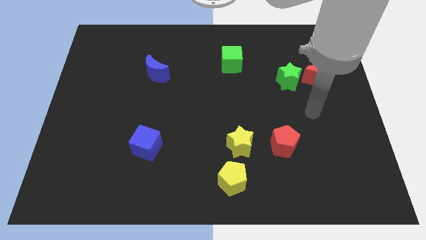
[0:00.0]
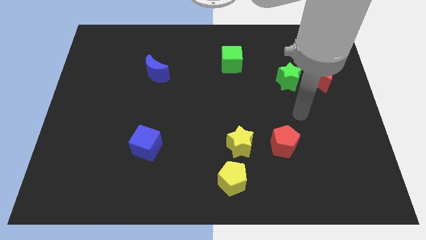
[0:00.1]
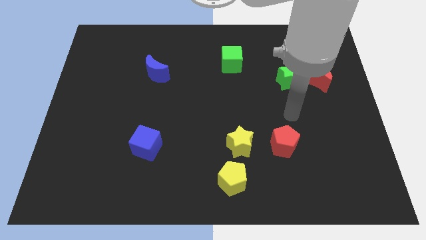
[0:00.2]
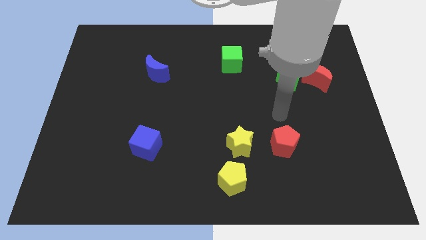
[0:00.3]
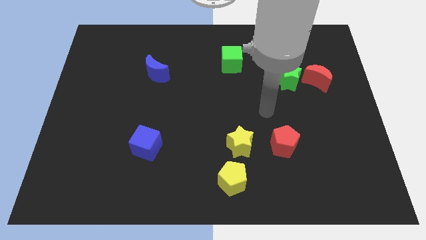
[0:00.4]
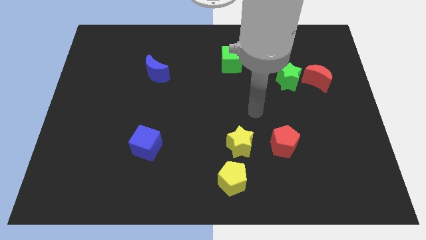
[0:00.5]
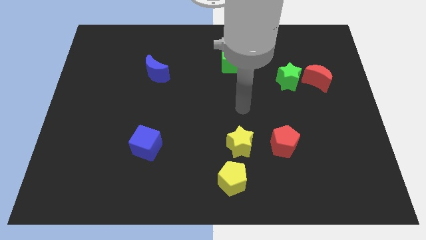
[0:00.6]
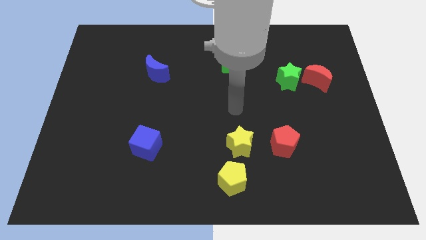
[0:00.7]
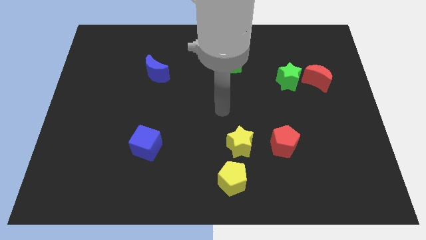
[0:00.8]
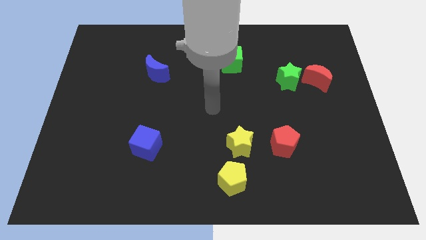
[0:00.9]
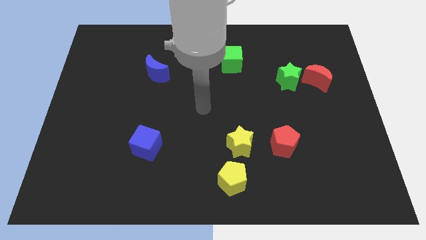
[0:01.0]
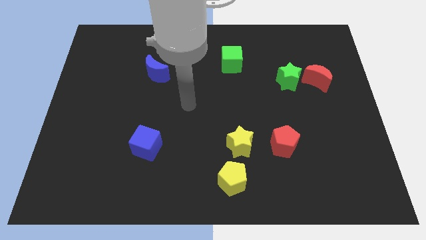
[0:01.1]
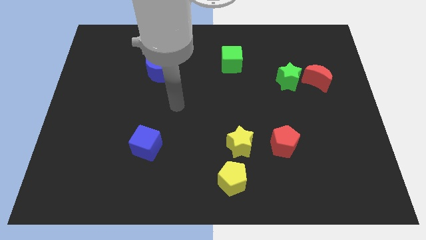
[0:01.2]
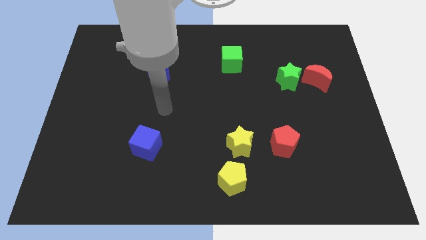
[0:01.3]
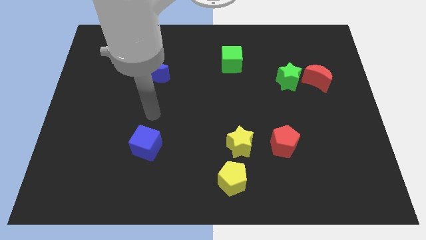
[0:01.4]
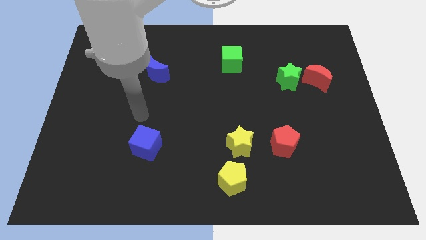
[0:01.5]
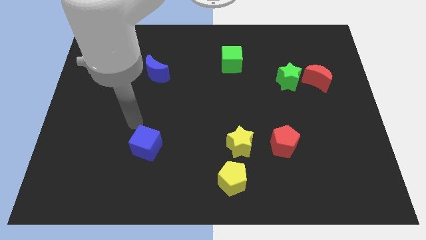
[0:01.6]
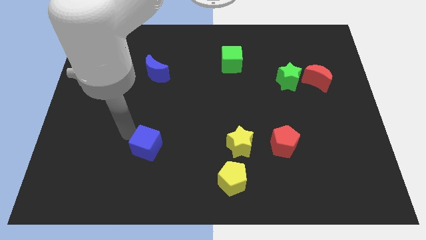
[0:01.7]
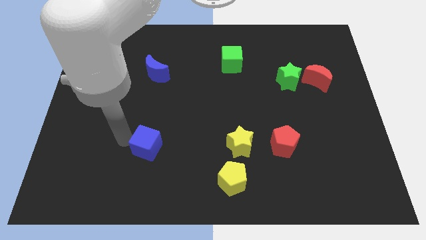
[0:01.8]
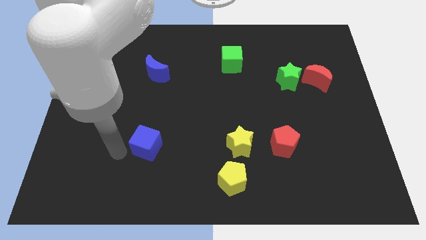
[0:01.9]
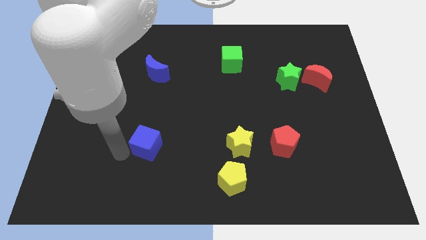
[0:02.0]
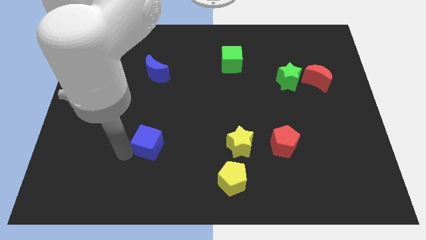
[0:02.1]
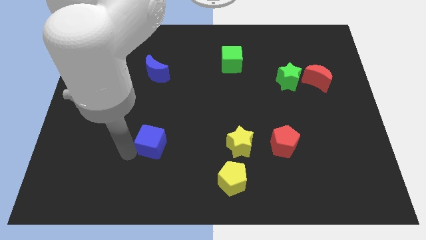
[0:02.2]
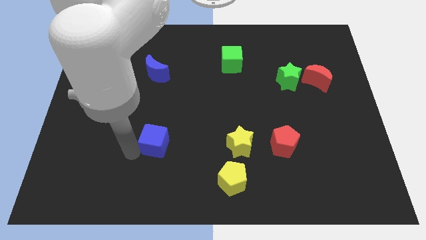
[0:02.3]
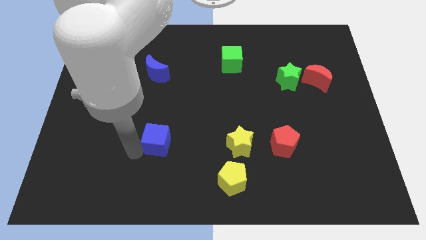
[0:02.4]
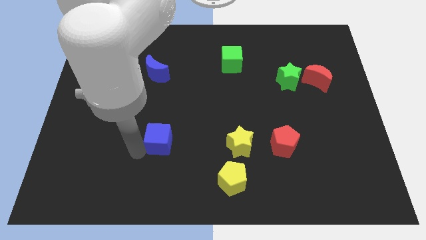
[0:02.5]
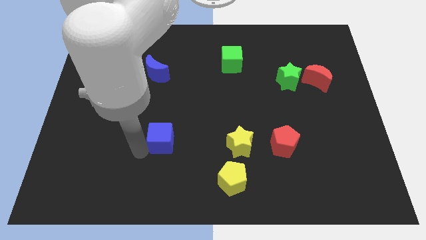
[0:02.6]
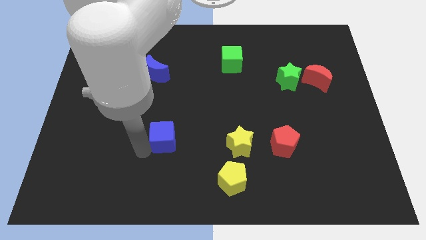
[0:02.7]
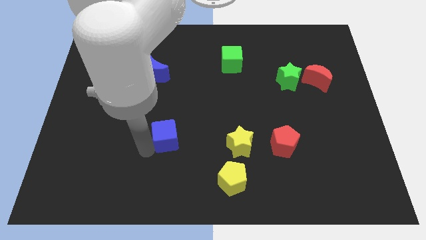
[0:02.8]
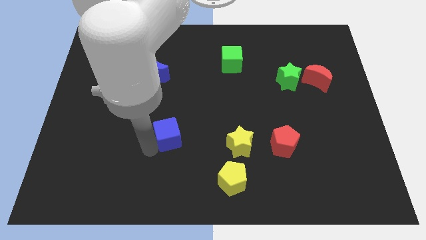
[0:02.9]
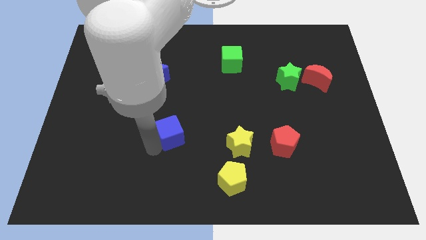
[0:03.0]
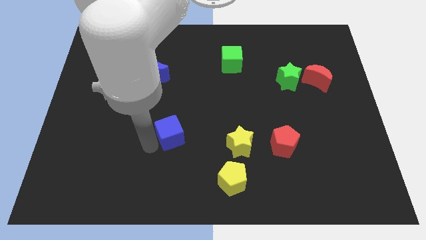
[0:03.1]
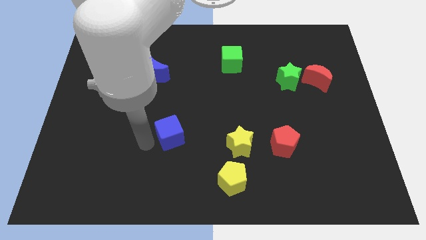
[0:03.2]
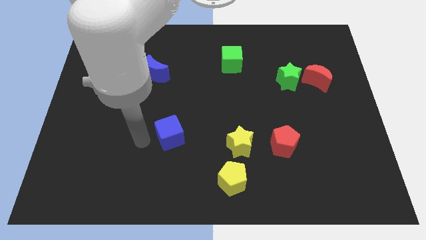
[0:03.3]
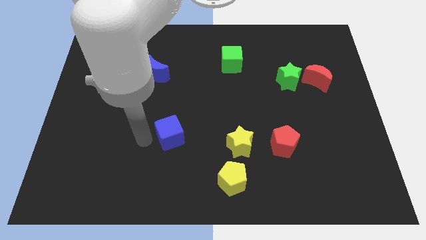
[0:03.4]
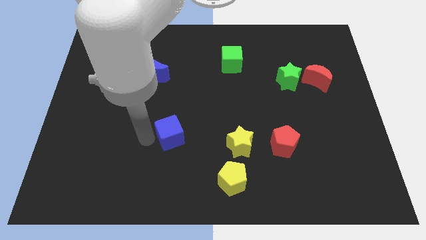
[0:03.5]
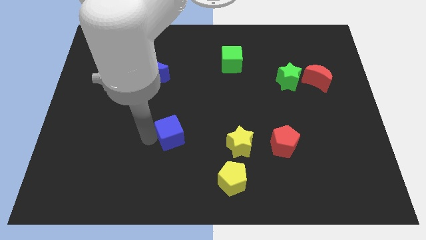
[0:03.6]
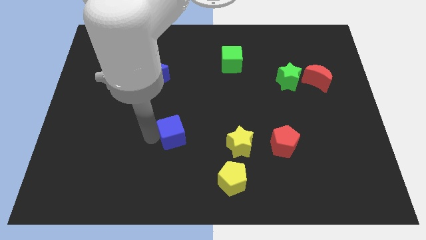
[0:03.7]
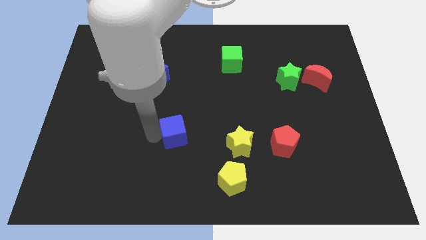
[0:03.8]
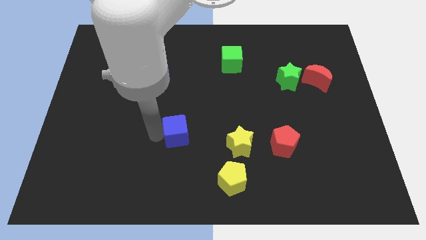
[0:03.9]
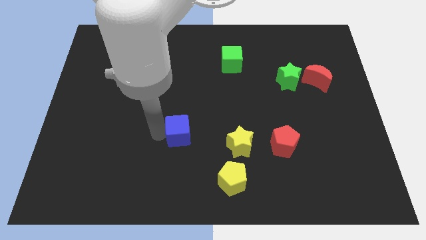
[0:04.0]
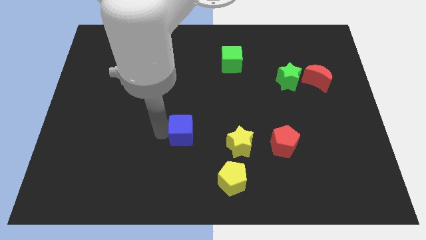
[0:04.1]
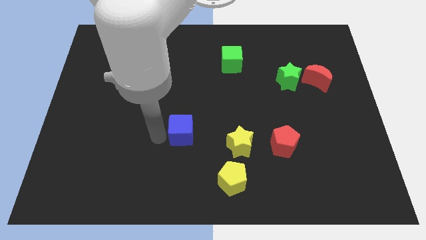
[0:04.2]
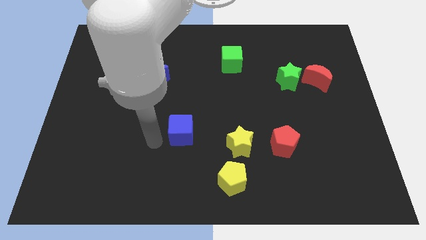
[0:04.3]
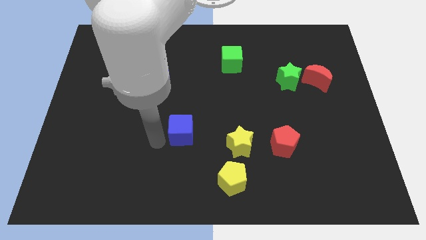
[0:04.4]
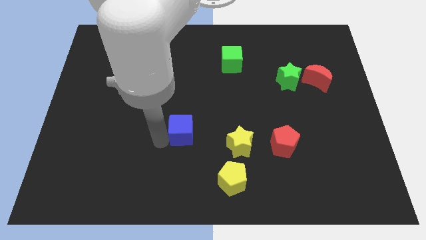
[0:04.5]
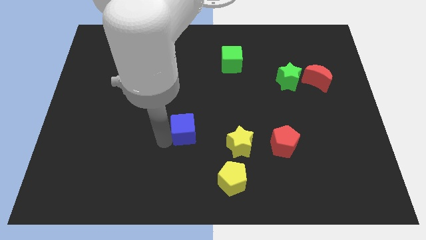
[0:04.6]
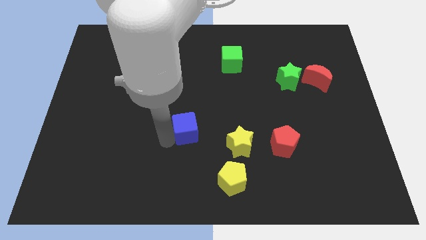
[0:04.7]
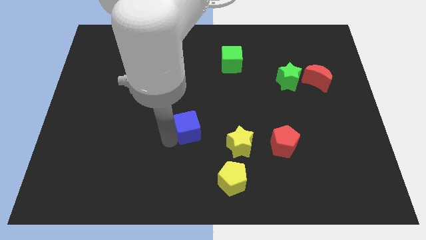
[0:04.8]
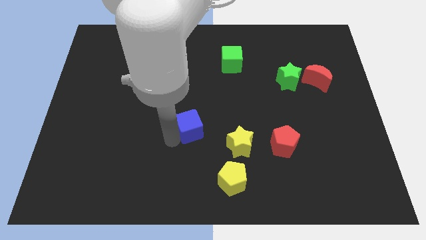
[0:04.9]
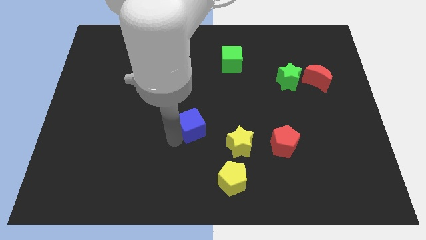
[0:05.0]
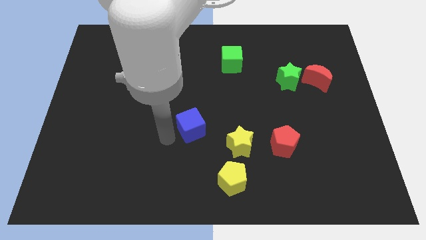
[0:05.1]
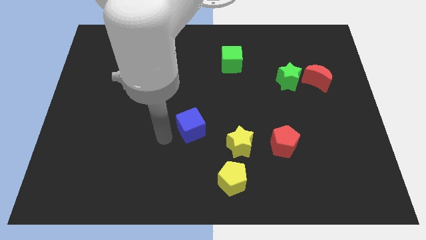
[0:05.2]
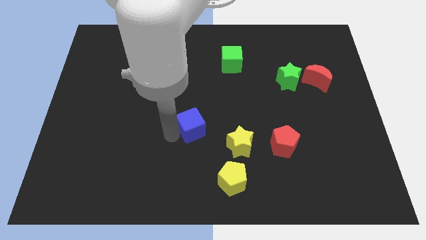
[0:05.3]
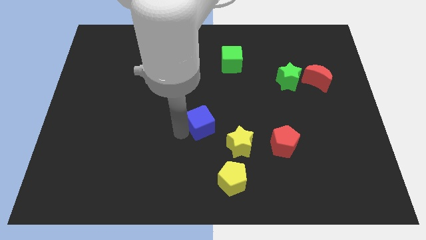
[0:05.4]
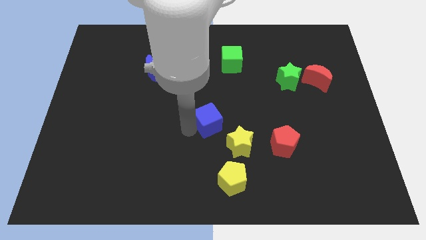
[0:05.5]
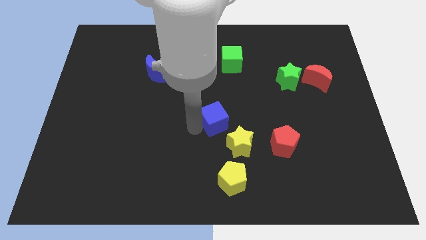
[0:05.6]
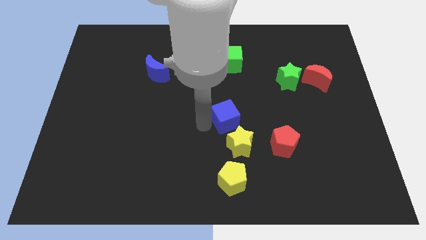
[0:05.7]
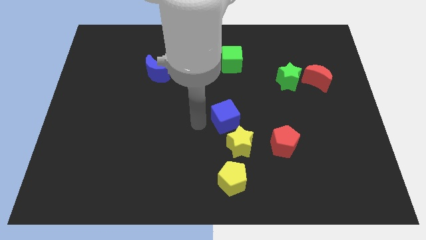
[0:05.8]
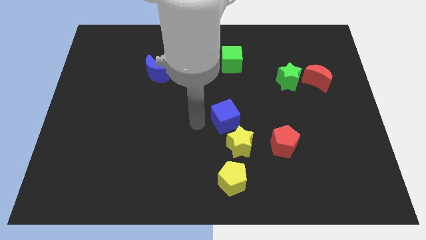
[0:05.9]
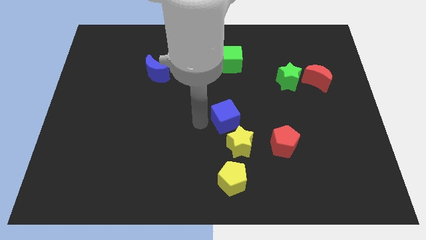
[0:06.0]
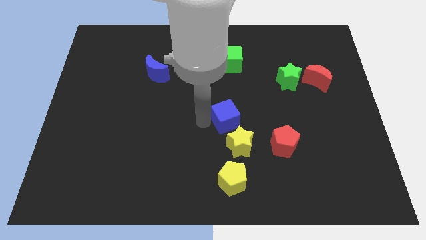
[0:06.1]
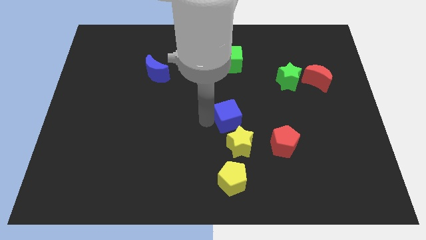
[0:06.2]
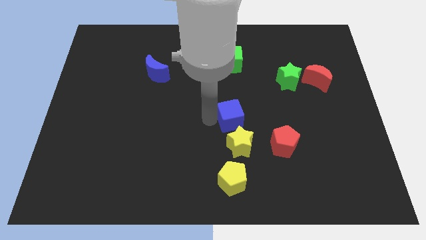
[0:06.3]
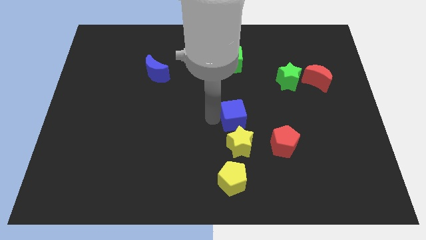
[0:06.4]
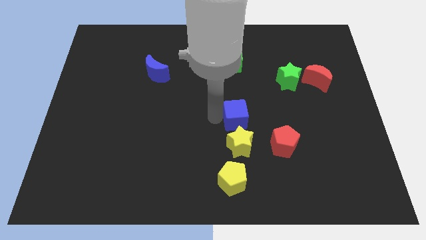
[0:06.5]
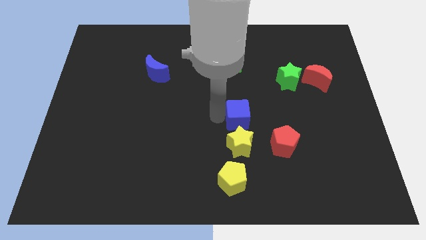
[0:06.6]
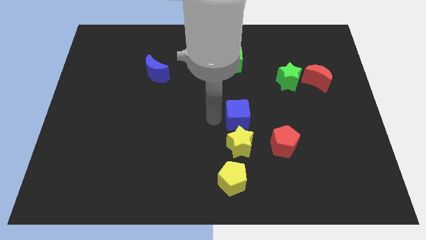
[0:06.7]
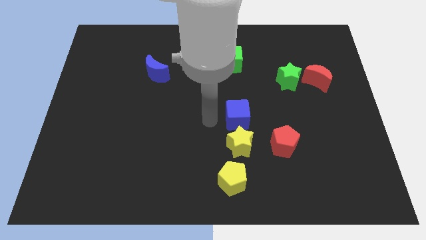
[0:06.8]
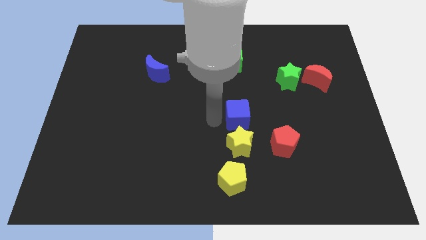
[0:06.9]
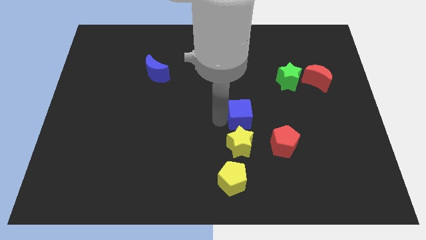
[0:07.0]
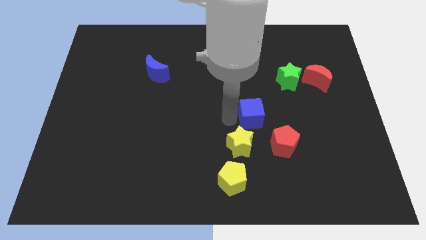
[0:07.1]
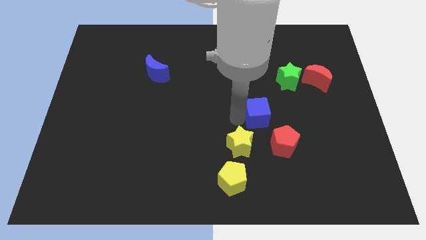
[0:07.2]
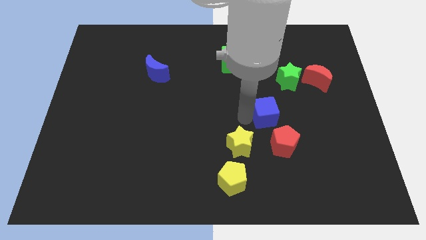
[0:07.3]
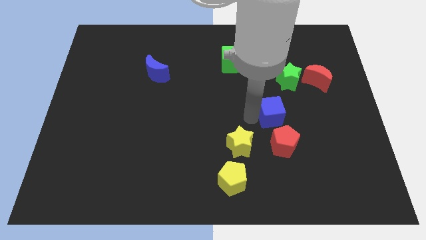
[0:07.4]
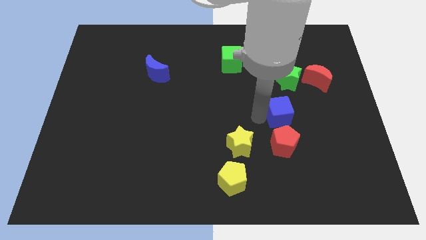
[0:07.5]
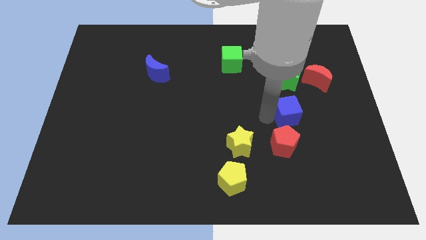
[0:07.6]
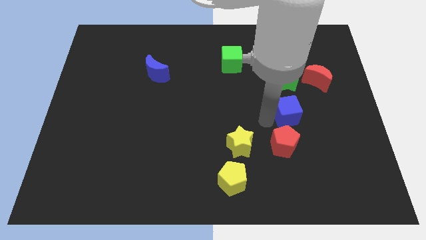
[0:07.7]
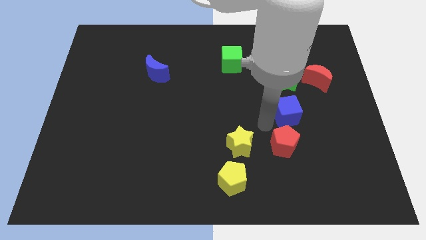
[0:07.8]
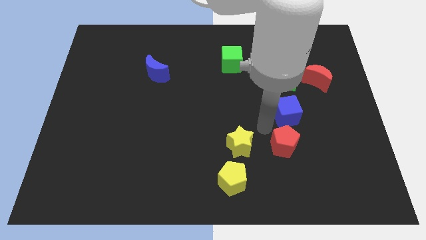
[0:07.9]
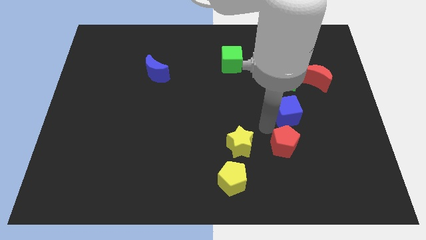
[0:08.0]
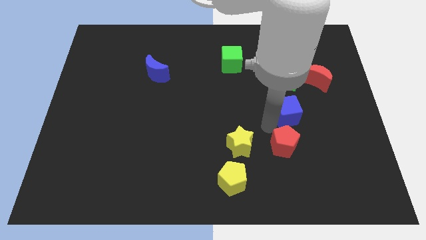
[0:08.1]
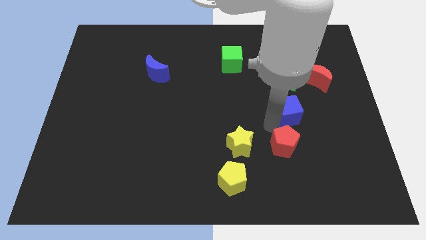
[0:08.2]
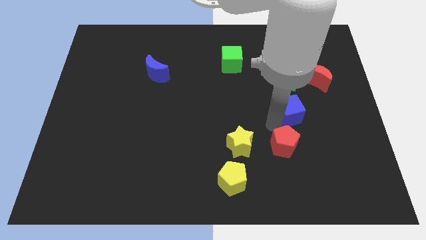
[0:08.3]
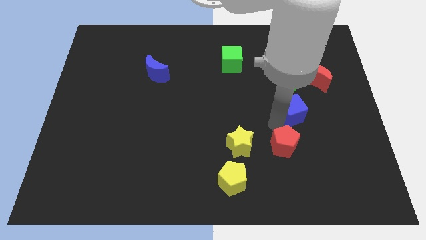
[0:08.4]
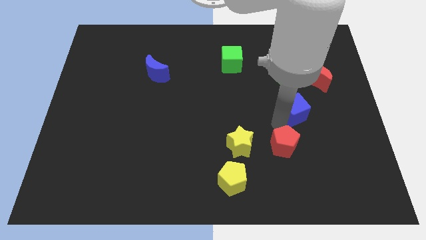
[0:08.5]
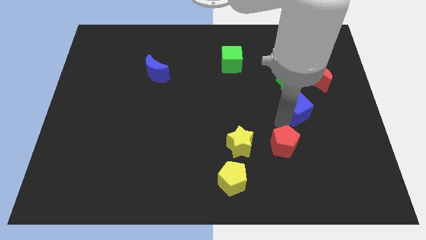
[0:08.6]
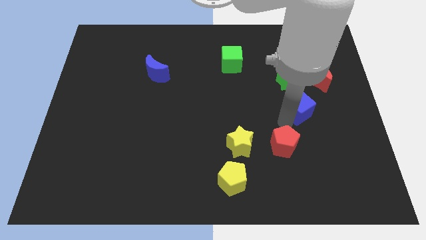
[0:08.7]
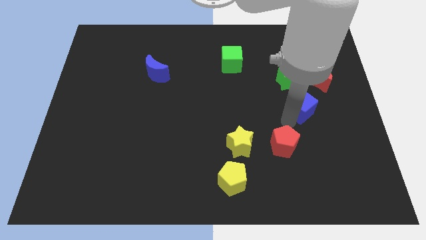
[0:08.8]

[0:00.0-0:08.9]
move the blue cube diagonally down and to the right of the green star
